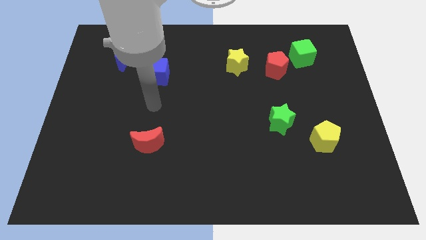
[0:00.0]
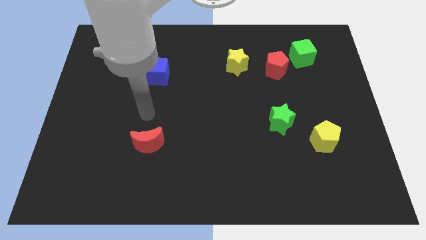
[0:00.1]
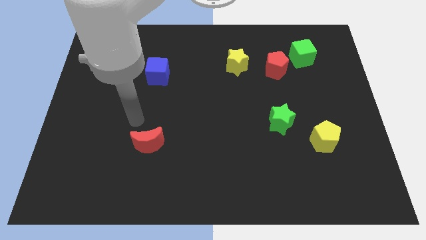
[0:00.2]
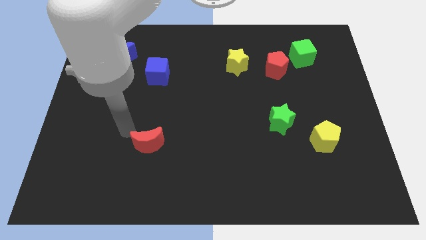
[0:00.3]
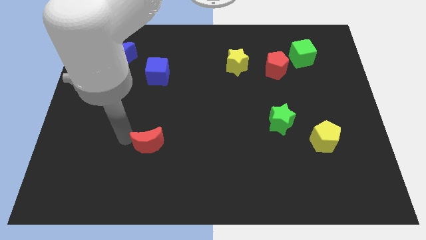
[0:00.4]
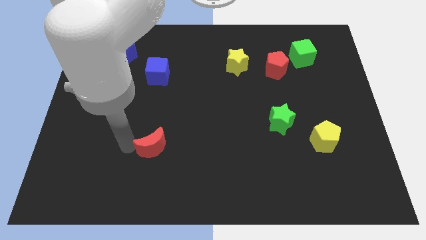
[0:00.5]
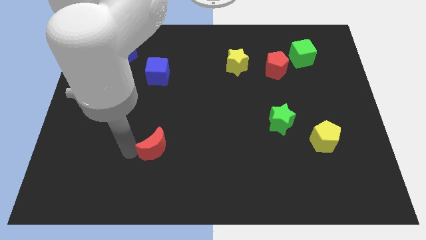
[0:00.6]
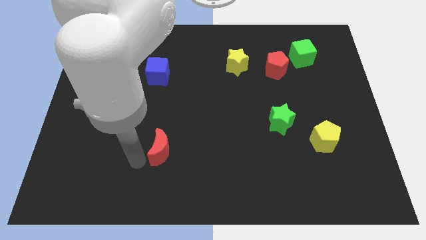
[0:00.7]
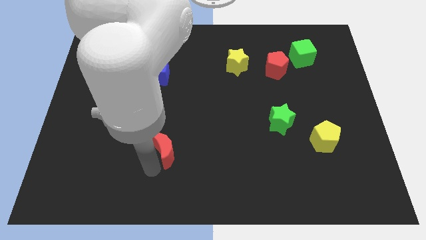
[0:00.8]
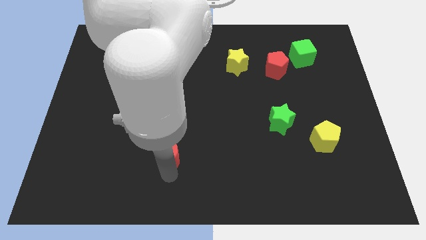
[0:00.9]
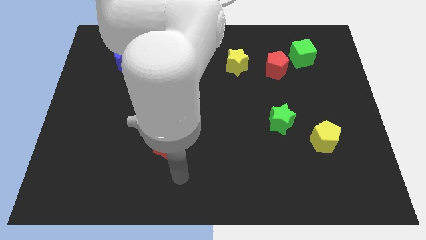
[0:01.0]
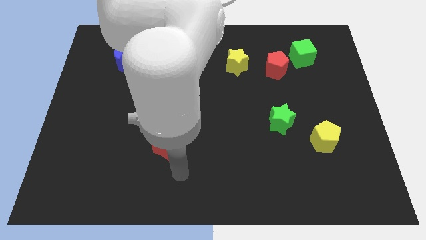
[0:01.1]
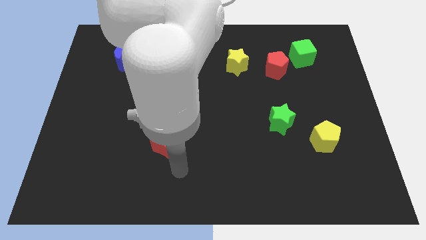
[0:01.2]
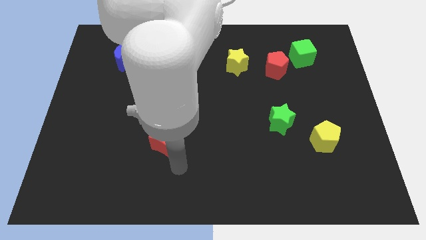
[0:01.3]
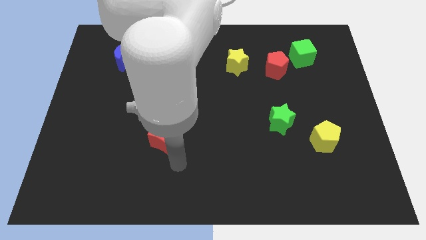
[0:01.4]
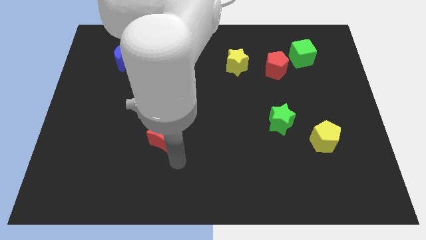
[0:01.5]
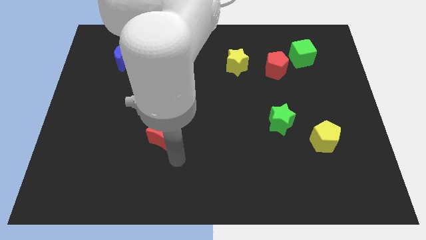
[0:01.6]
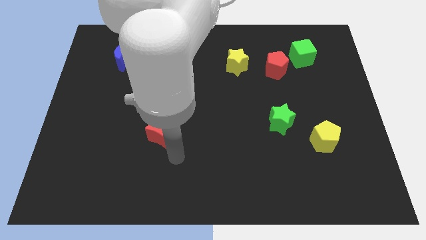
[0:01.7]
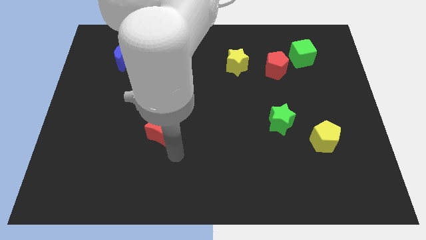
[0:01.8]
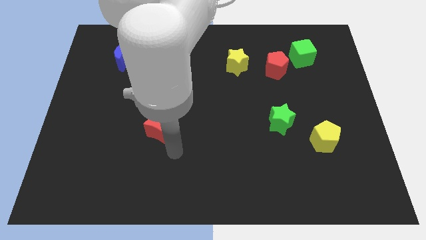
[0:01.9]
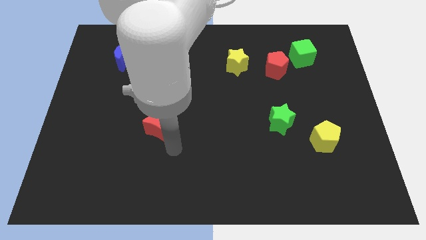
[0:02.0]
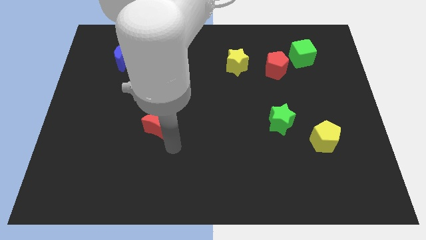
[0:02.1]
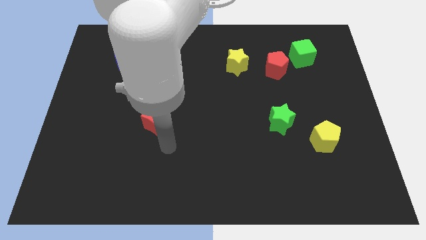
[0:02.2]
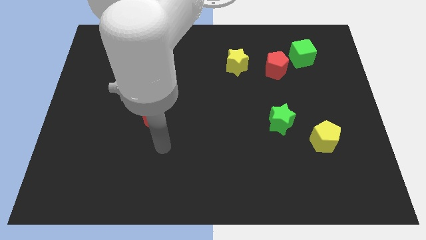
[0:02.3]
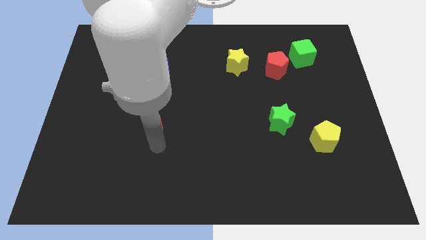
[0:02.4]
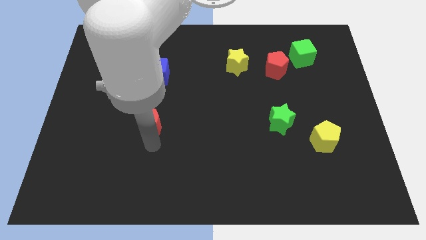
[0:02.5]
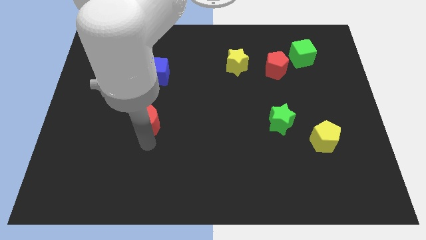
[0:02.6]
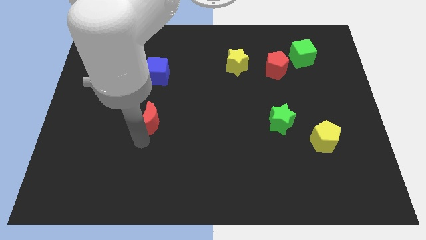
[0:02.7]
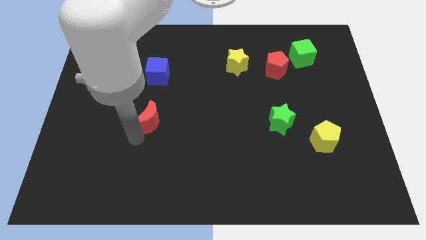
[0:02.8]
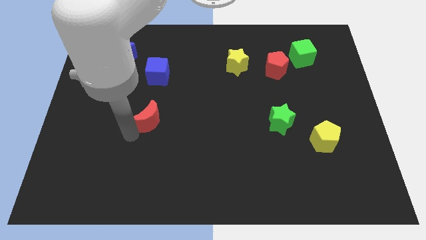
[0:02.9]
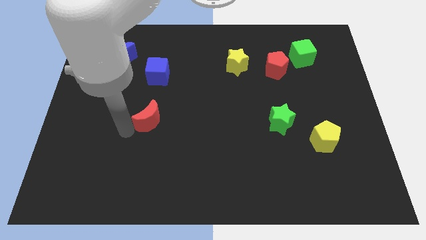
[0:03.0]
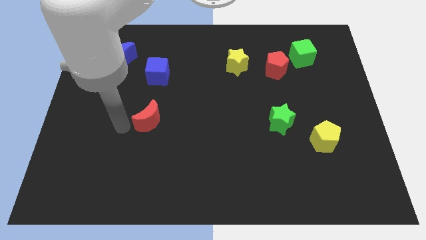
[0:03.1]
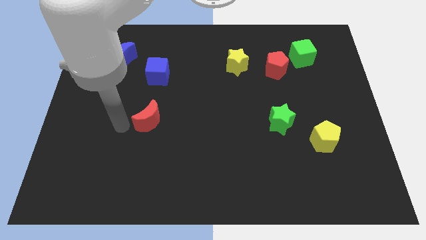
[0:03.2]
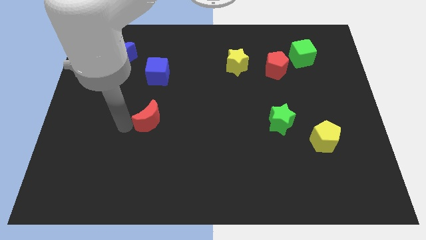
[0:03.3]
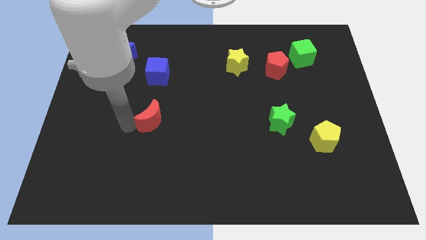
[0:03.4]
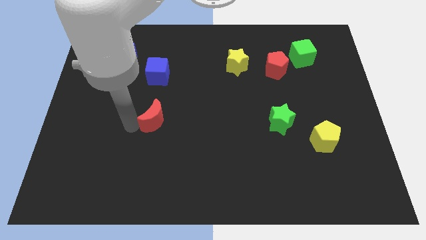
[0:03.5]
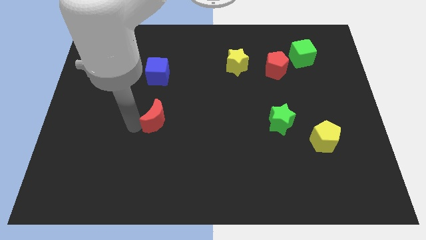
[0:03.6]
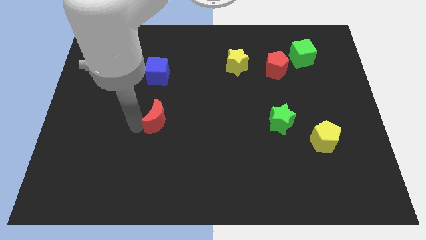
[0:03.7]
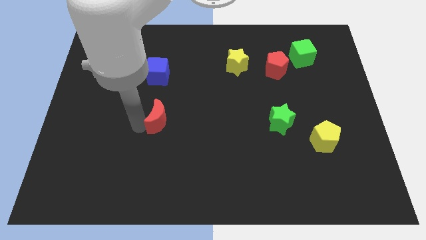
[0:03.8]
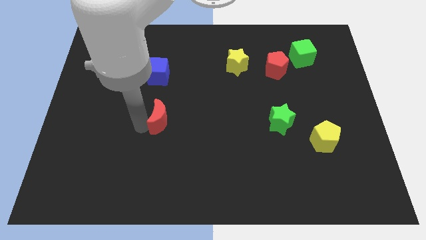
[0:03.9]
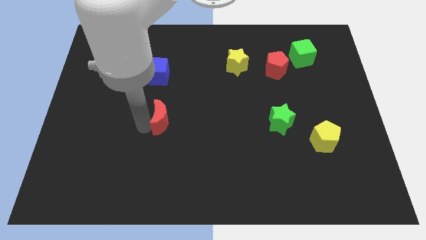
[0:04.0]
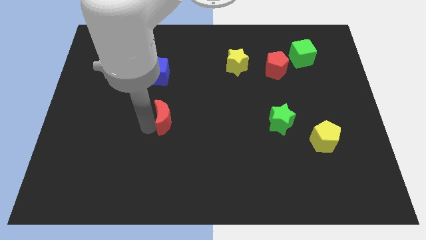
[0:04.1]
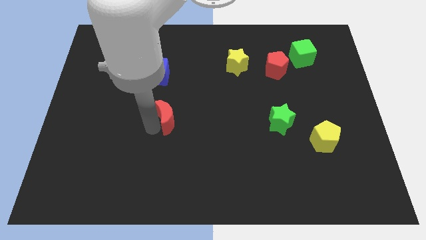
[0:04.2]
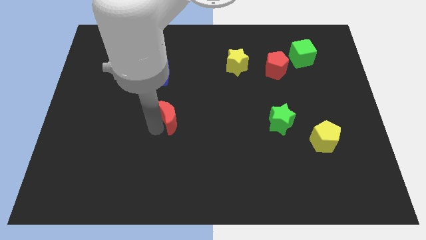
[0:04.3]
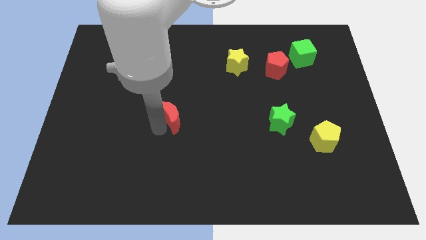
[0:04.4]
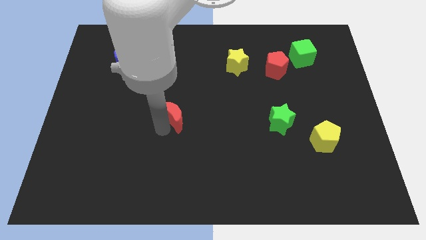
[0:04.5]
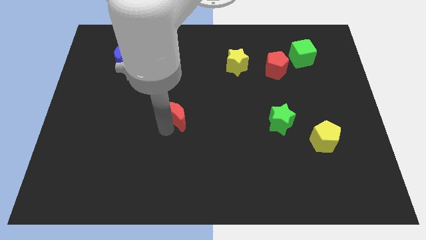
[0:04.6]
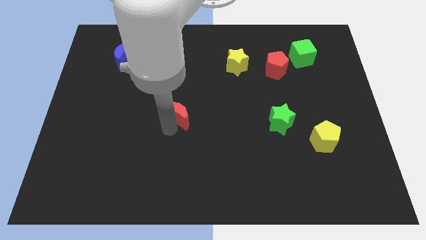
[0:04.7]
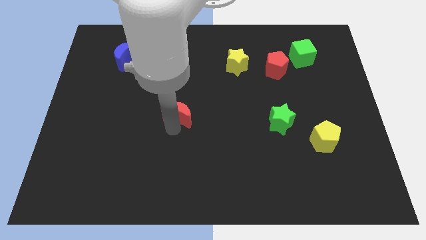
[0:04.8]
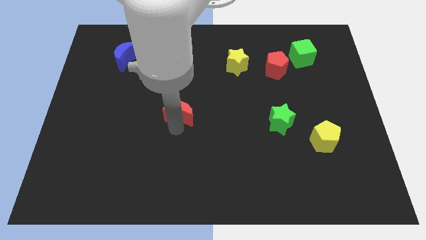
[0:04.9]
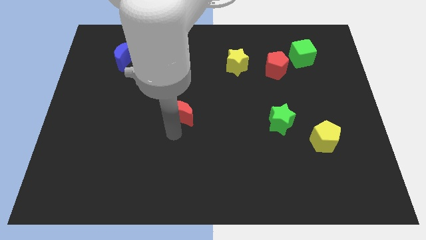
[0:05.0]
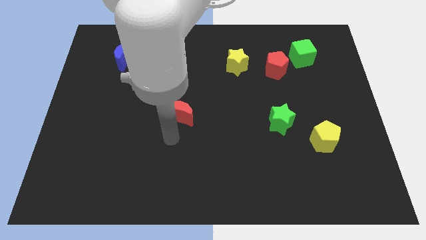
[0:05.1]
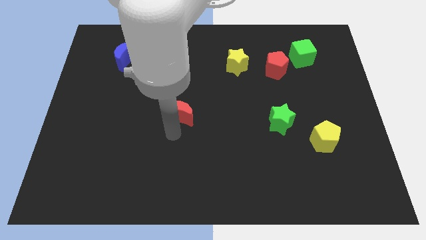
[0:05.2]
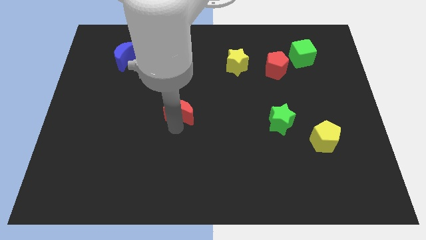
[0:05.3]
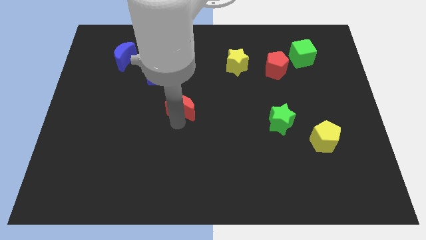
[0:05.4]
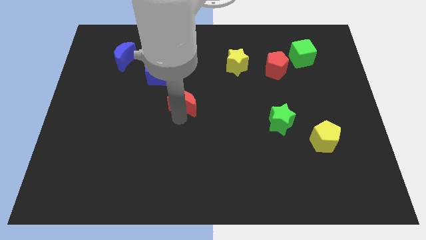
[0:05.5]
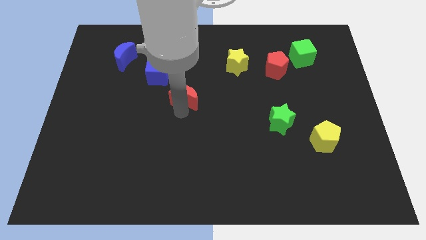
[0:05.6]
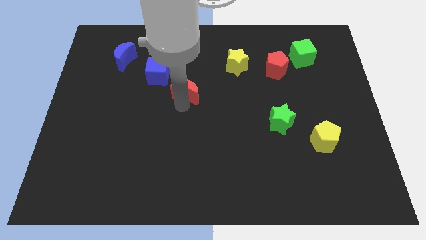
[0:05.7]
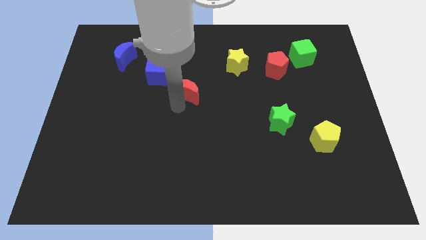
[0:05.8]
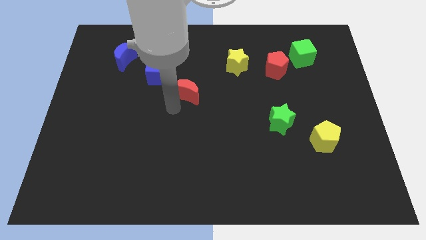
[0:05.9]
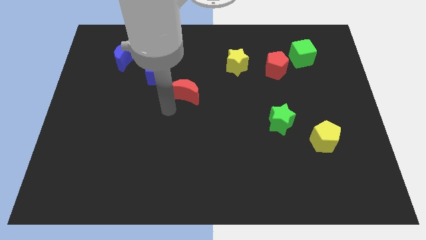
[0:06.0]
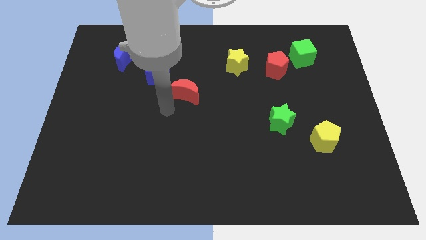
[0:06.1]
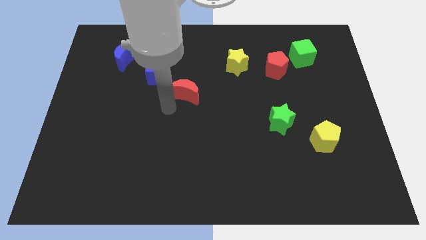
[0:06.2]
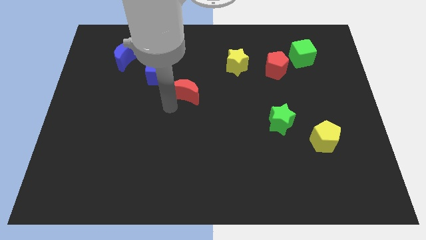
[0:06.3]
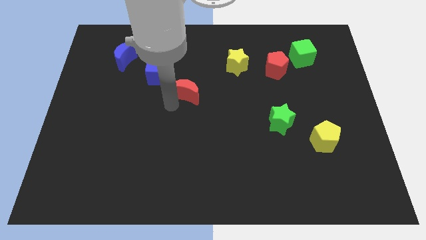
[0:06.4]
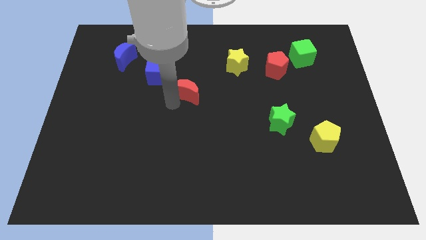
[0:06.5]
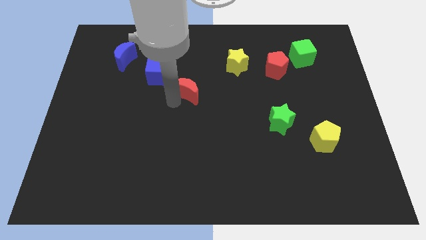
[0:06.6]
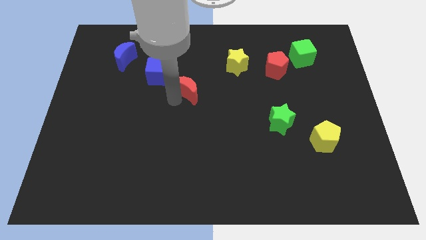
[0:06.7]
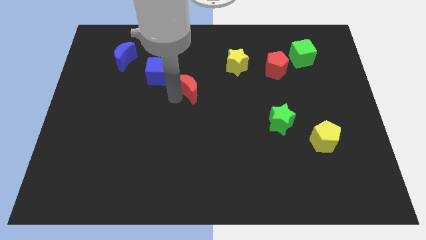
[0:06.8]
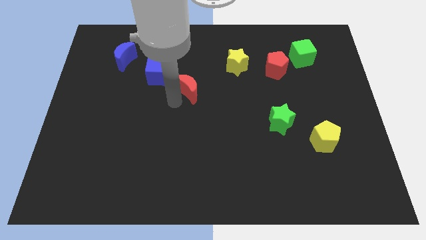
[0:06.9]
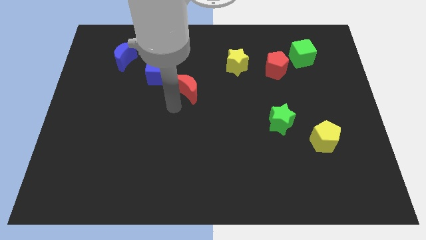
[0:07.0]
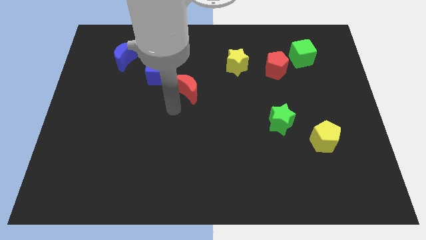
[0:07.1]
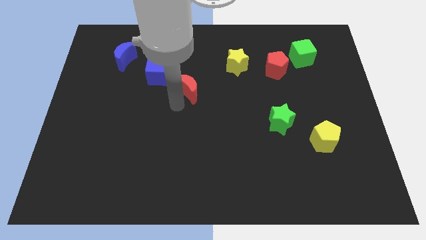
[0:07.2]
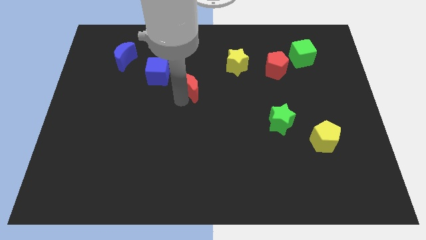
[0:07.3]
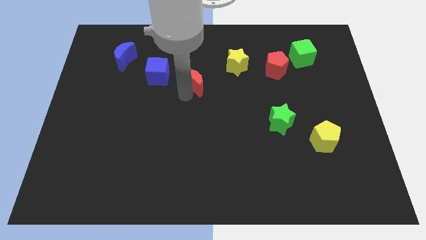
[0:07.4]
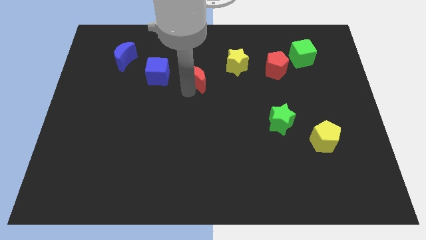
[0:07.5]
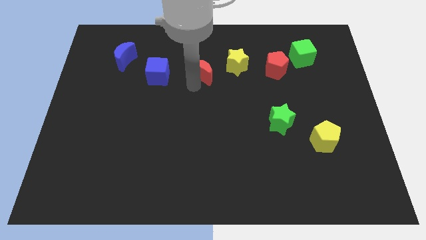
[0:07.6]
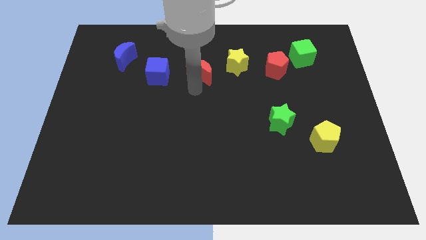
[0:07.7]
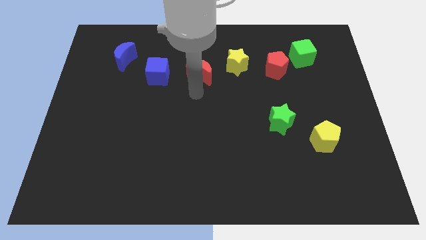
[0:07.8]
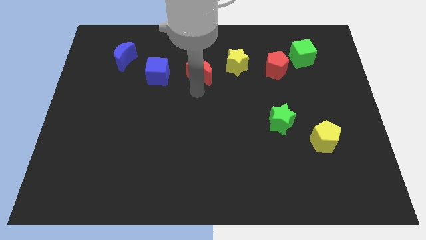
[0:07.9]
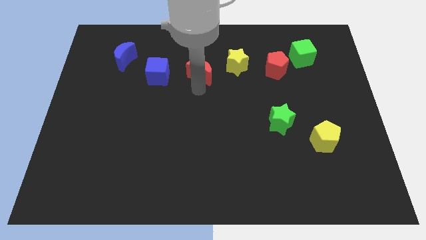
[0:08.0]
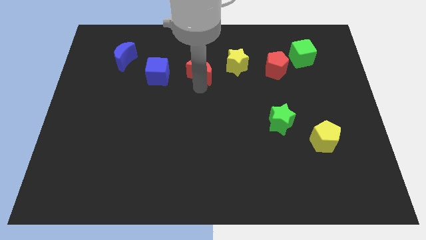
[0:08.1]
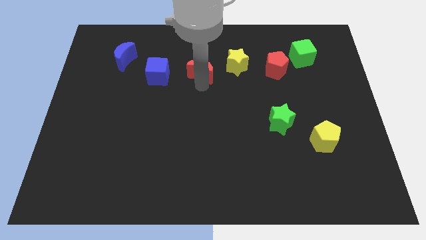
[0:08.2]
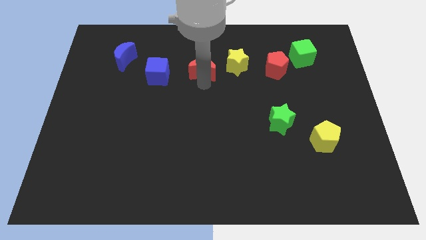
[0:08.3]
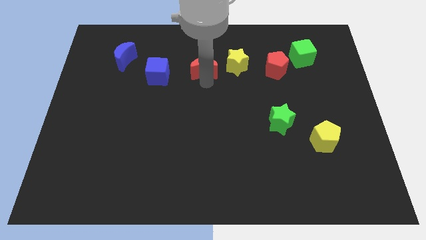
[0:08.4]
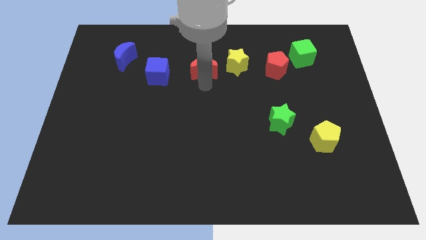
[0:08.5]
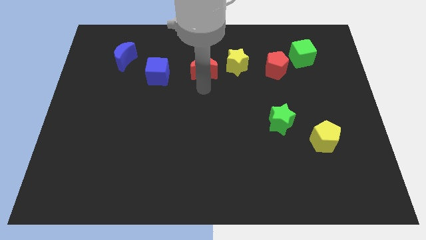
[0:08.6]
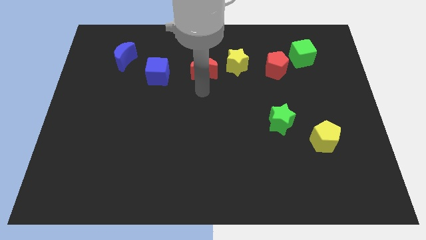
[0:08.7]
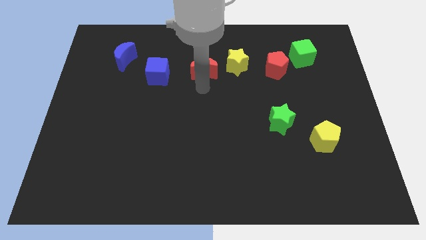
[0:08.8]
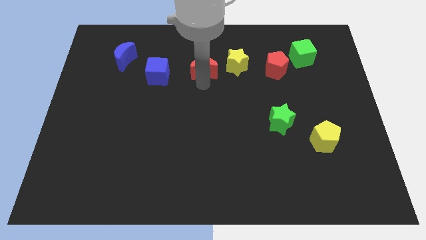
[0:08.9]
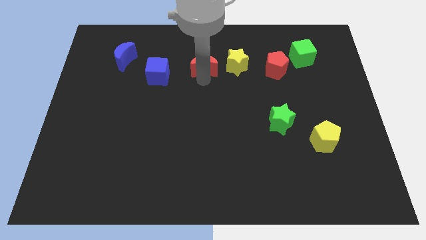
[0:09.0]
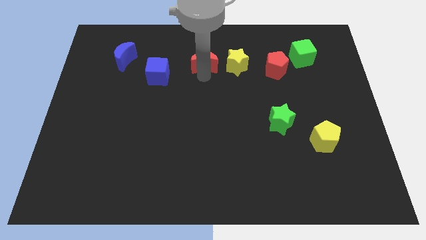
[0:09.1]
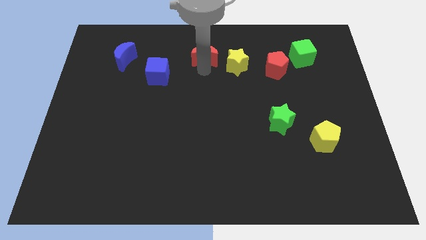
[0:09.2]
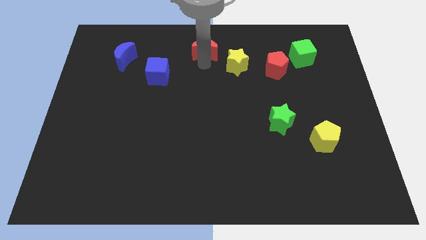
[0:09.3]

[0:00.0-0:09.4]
push the red moon to the towards your base
